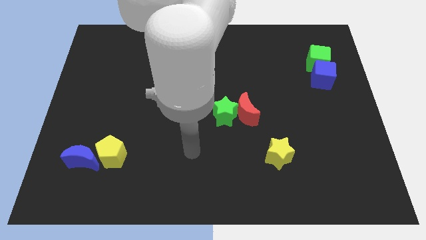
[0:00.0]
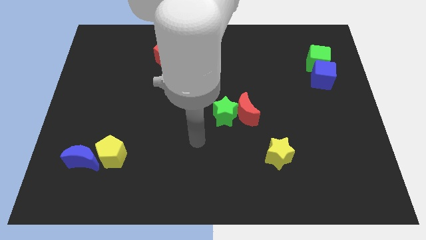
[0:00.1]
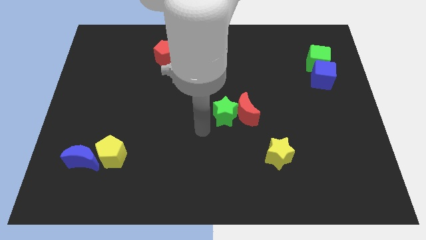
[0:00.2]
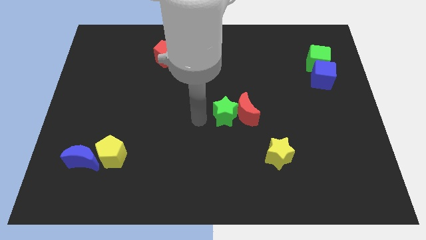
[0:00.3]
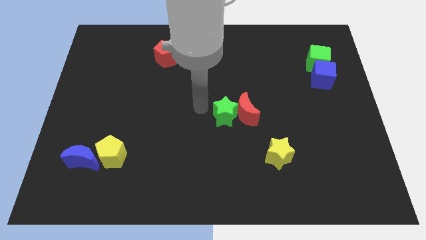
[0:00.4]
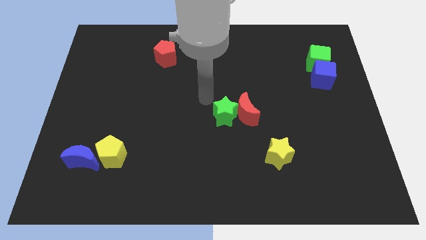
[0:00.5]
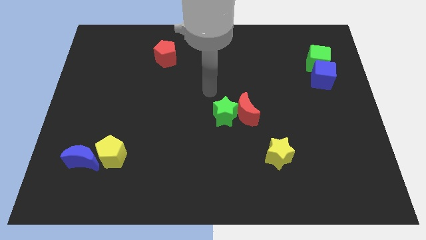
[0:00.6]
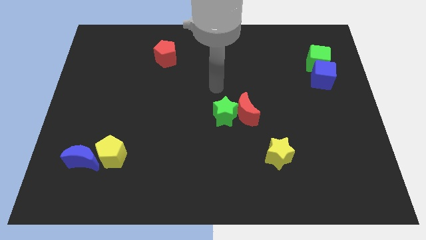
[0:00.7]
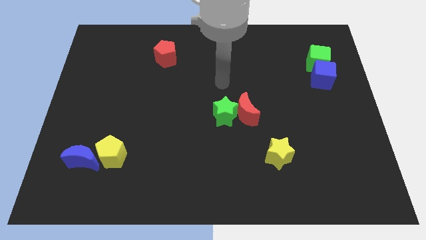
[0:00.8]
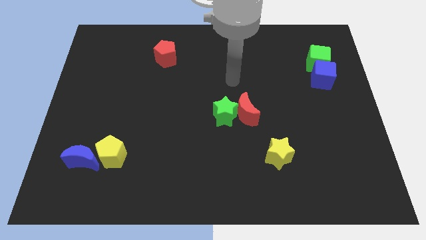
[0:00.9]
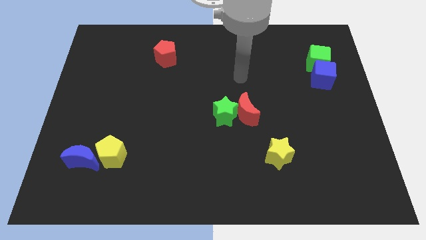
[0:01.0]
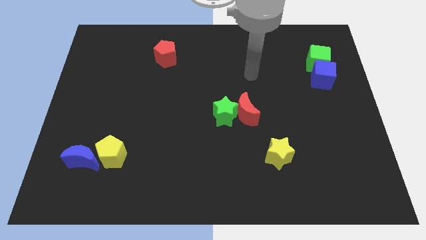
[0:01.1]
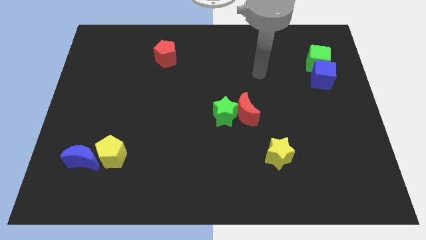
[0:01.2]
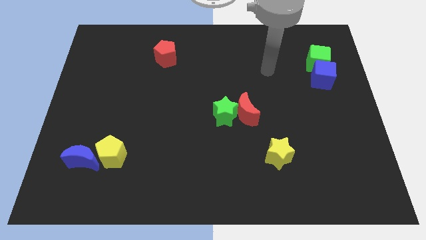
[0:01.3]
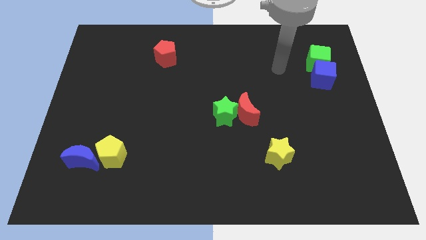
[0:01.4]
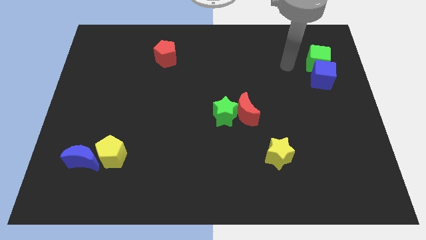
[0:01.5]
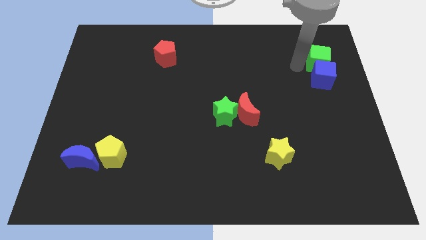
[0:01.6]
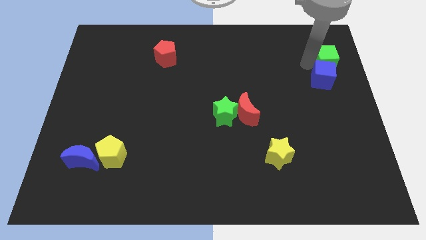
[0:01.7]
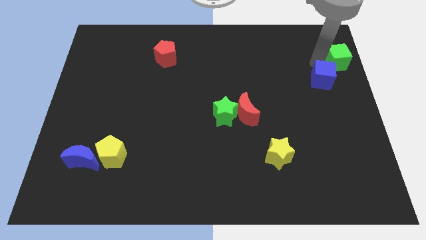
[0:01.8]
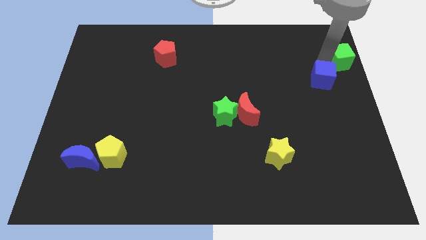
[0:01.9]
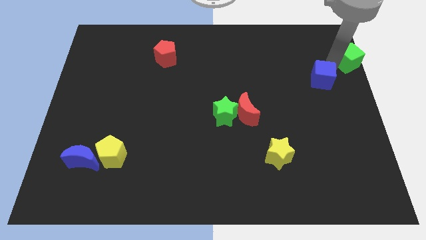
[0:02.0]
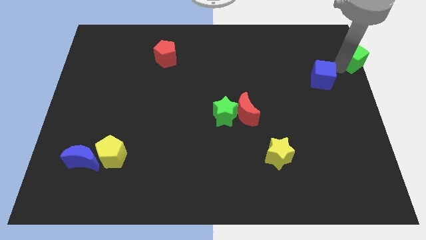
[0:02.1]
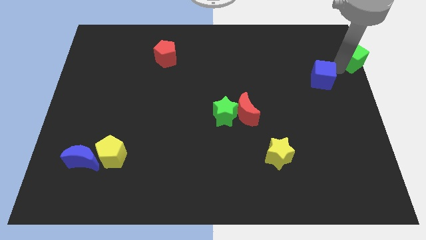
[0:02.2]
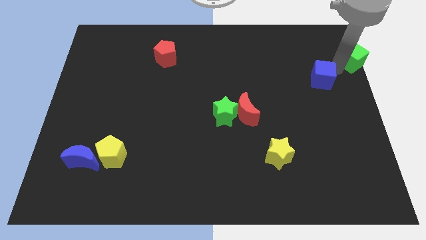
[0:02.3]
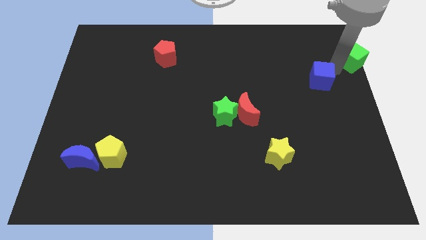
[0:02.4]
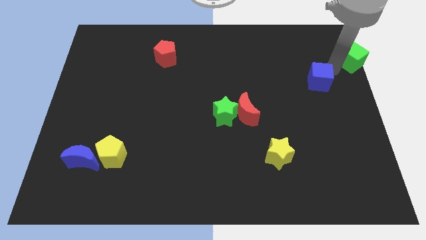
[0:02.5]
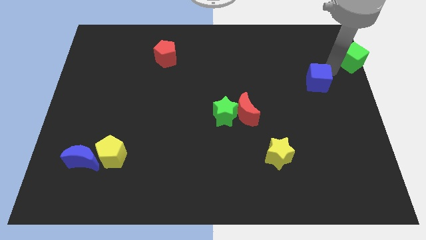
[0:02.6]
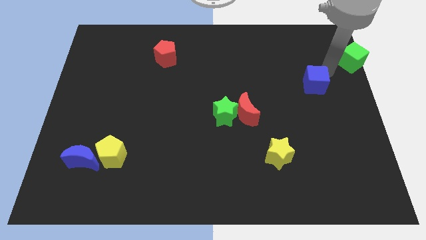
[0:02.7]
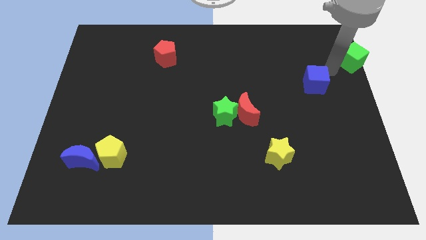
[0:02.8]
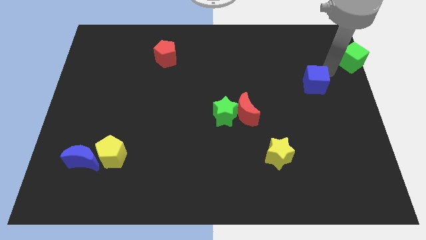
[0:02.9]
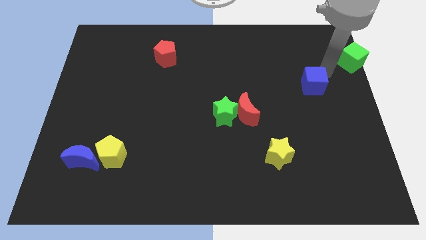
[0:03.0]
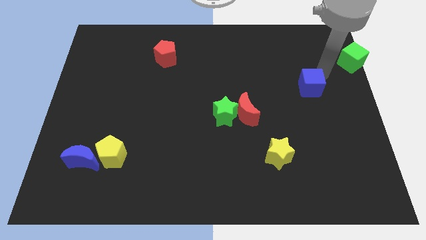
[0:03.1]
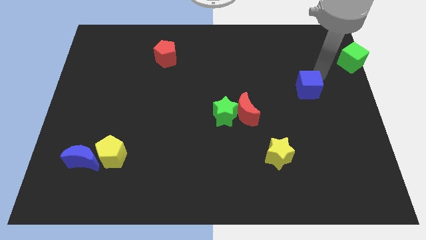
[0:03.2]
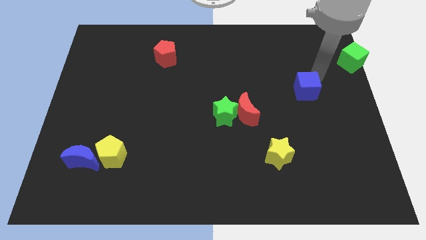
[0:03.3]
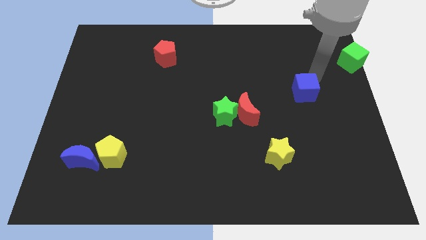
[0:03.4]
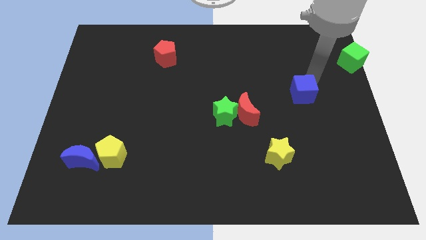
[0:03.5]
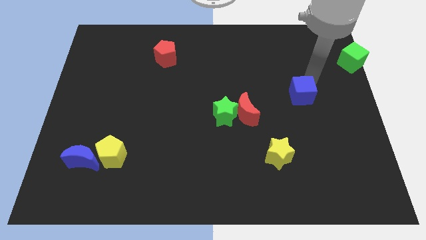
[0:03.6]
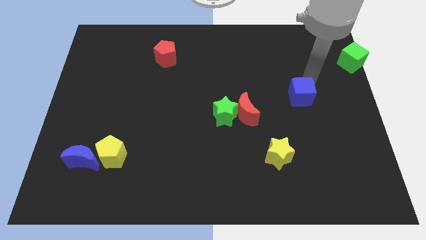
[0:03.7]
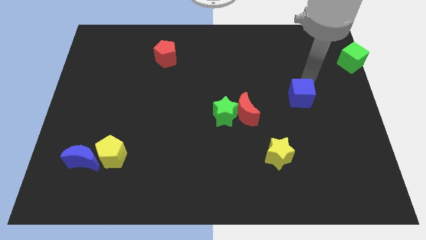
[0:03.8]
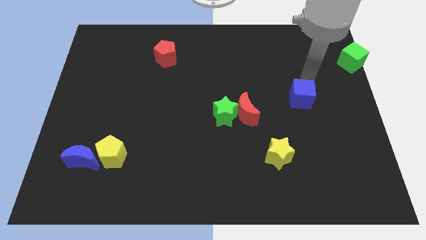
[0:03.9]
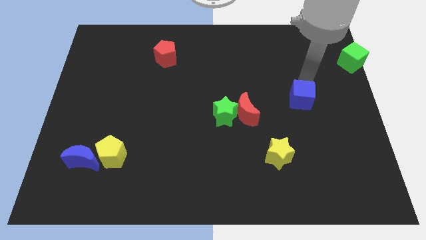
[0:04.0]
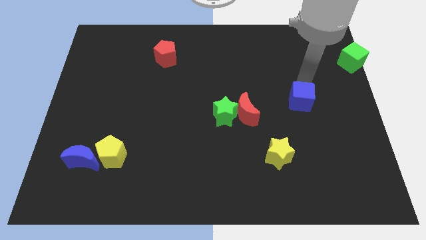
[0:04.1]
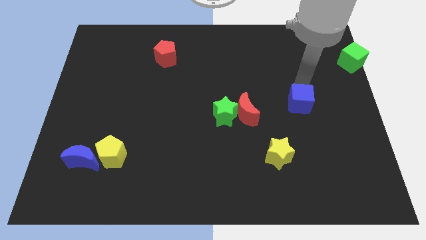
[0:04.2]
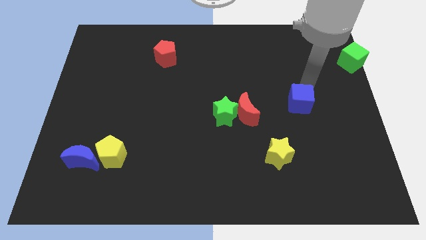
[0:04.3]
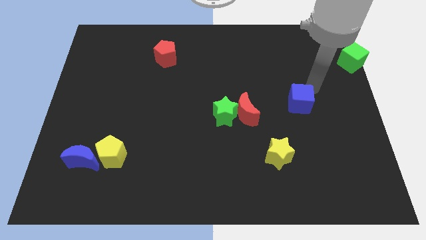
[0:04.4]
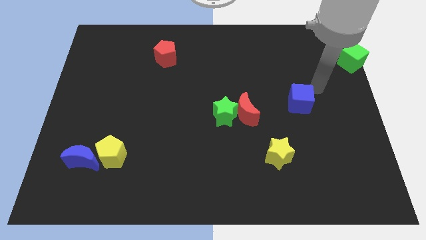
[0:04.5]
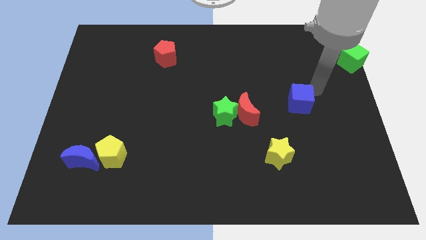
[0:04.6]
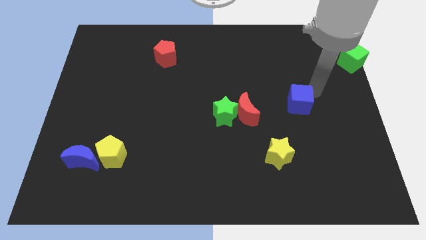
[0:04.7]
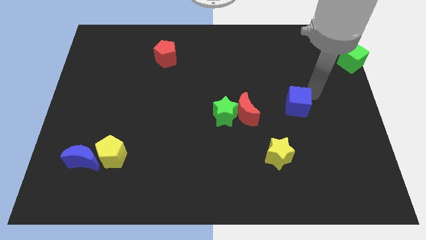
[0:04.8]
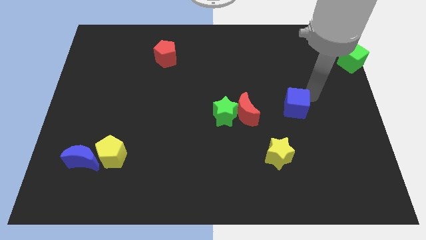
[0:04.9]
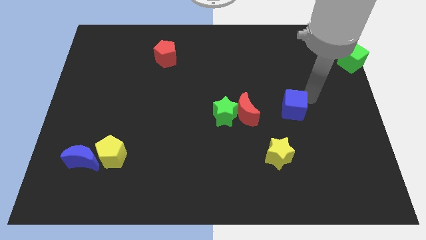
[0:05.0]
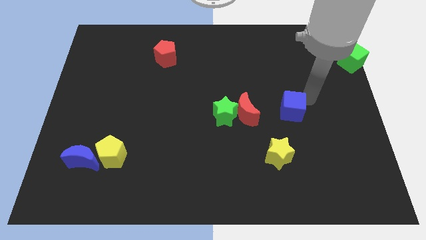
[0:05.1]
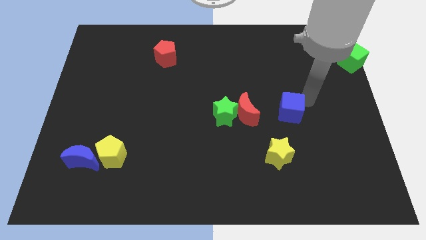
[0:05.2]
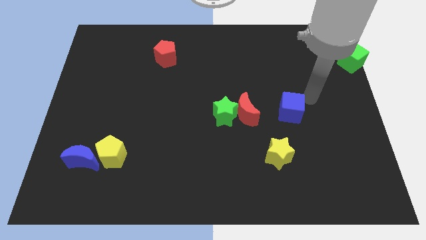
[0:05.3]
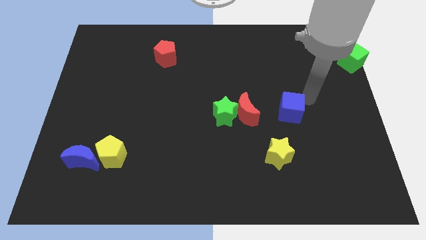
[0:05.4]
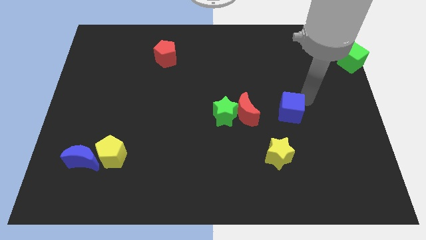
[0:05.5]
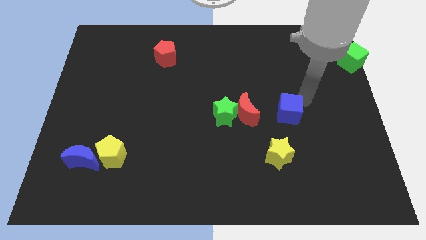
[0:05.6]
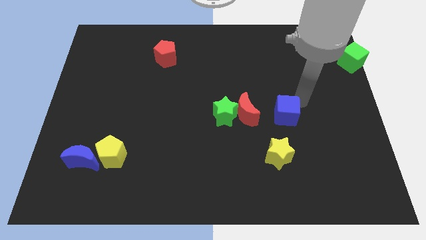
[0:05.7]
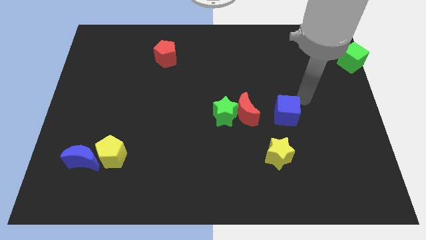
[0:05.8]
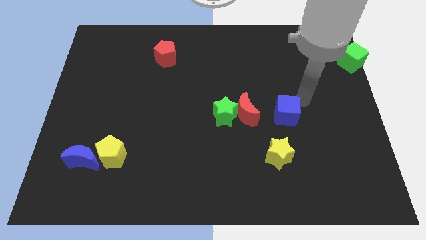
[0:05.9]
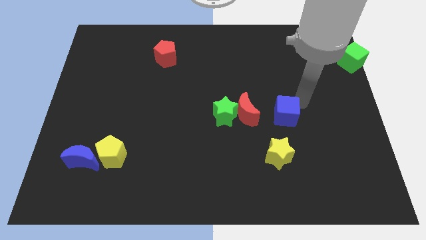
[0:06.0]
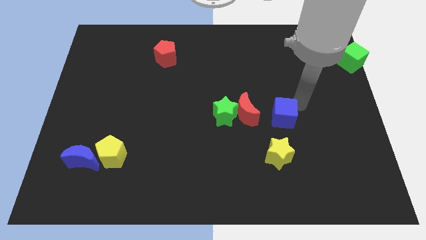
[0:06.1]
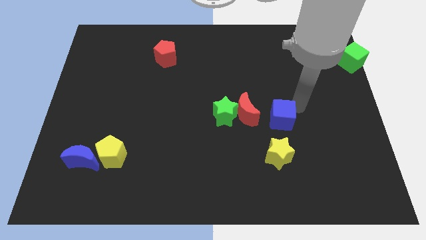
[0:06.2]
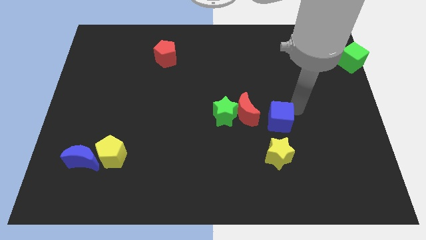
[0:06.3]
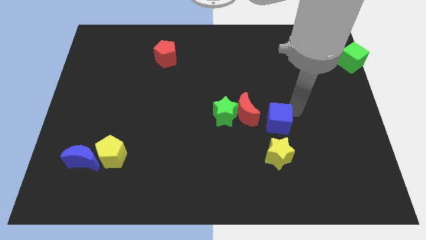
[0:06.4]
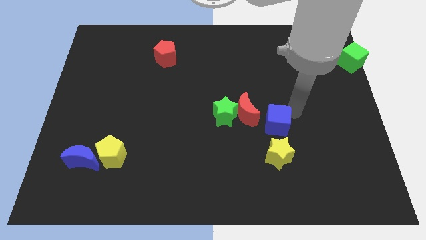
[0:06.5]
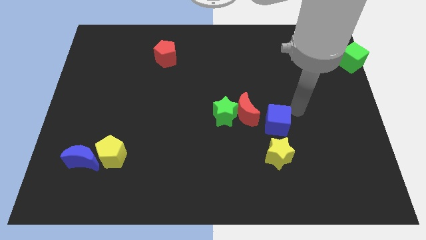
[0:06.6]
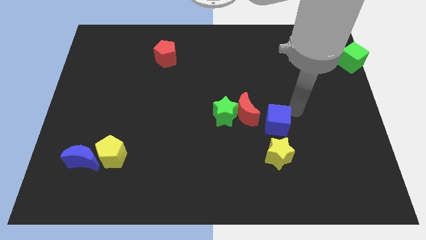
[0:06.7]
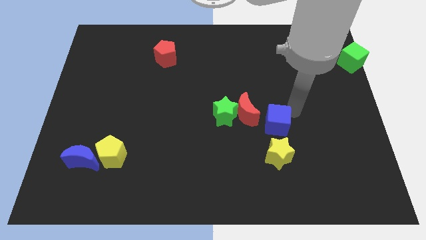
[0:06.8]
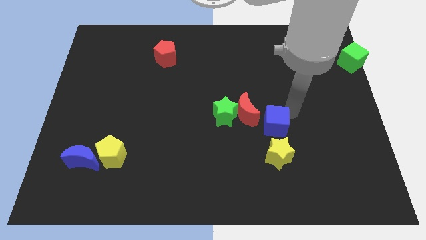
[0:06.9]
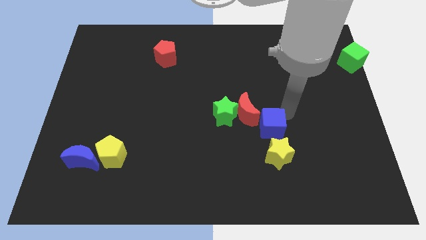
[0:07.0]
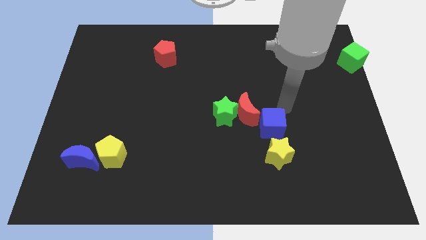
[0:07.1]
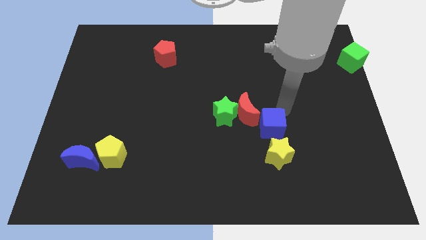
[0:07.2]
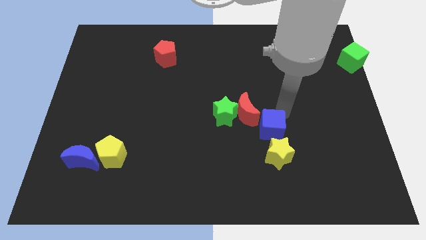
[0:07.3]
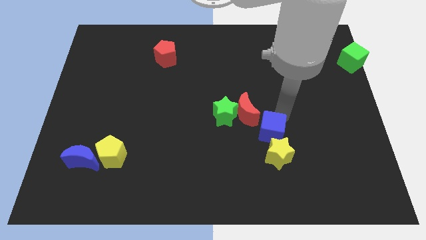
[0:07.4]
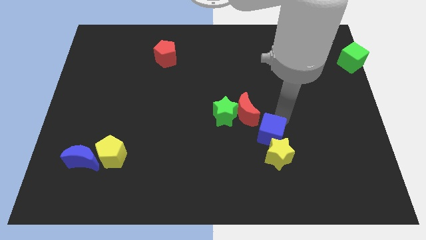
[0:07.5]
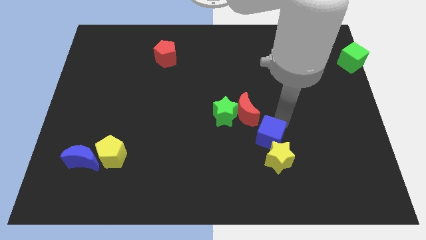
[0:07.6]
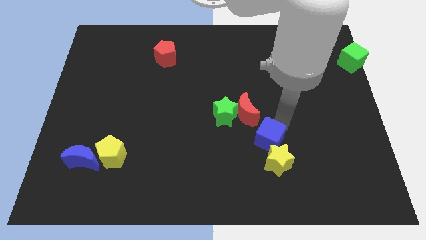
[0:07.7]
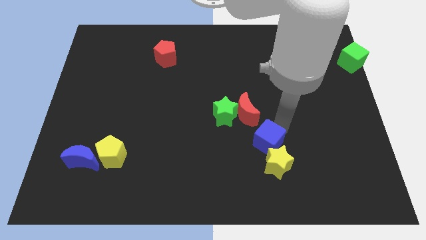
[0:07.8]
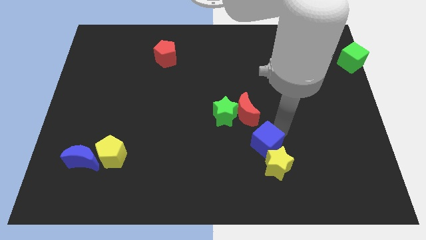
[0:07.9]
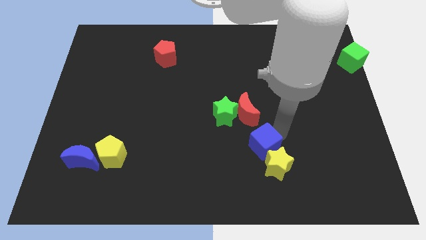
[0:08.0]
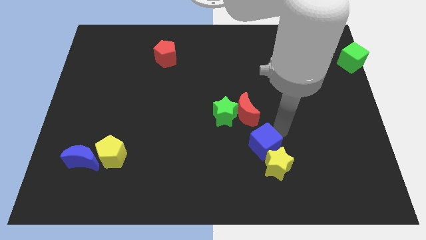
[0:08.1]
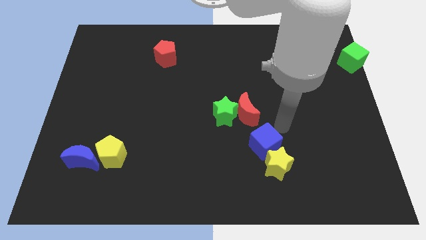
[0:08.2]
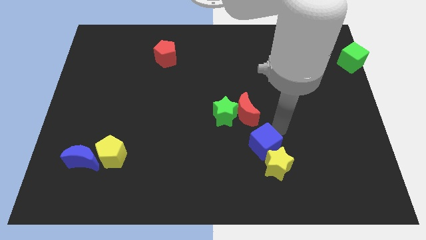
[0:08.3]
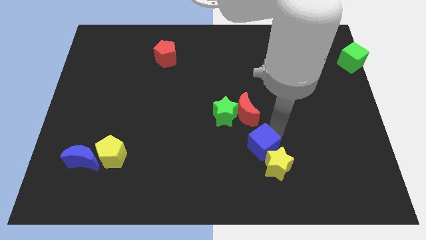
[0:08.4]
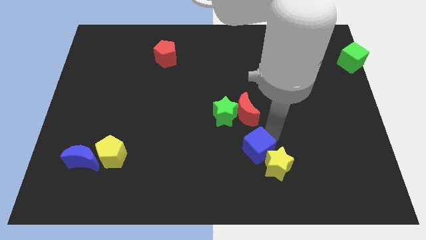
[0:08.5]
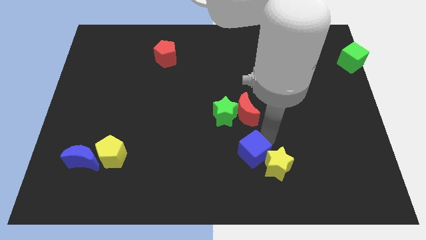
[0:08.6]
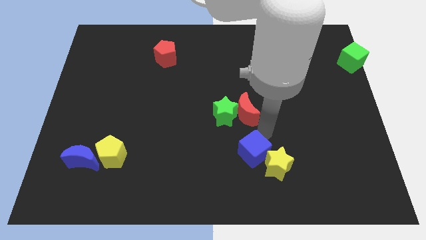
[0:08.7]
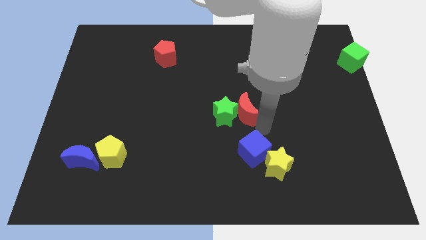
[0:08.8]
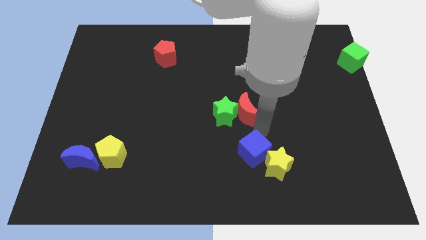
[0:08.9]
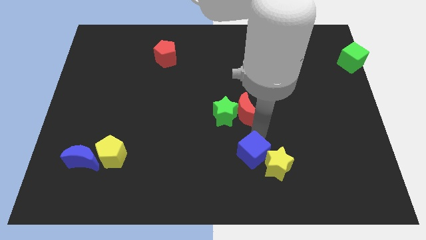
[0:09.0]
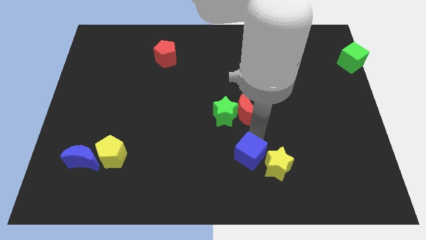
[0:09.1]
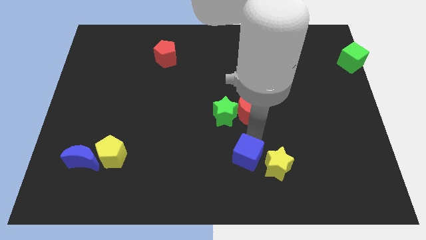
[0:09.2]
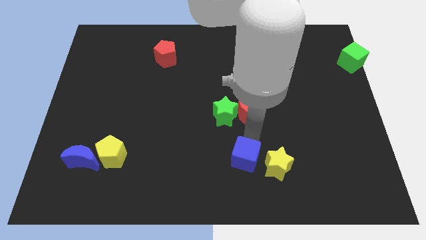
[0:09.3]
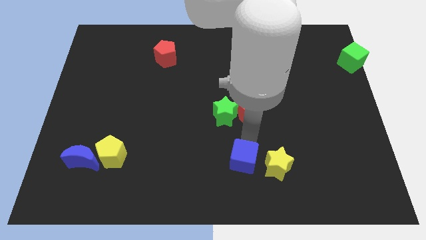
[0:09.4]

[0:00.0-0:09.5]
put the blue cube to the bottom
